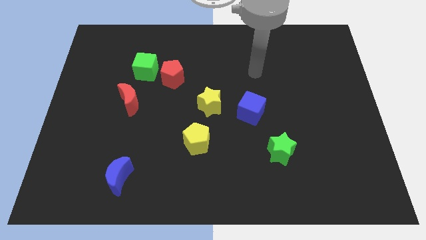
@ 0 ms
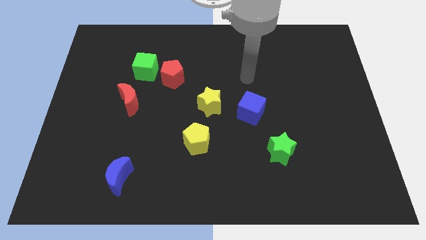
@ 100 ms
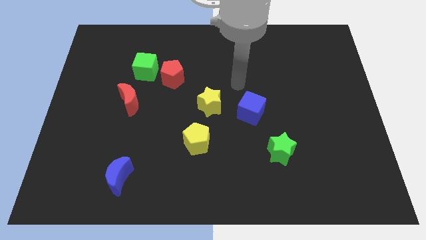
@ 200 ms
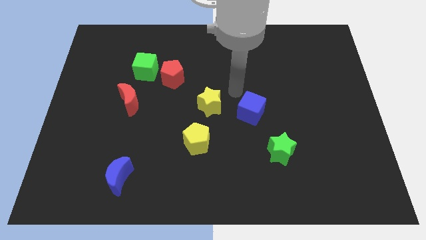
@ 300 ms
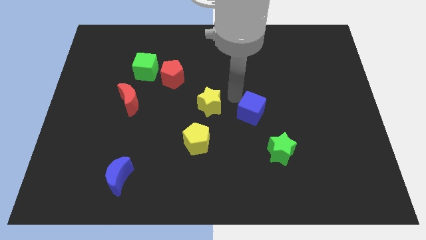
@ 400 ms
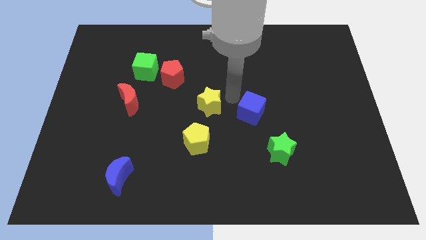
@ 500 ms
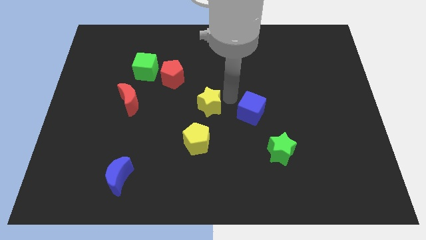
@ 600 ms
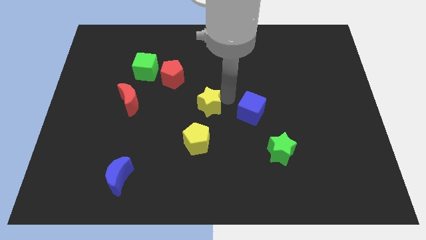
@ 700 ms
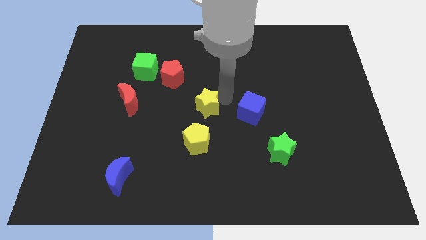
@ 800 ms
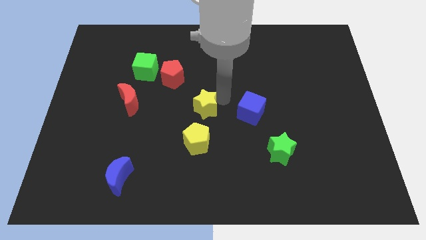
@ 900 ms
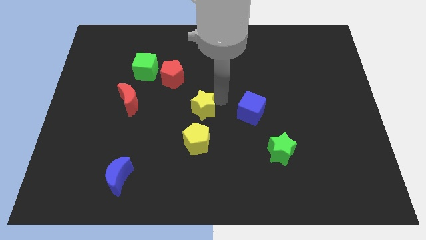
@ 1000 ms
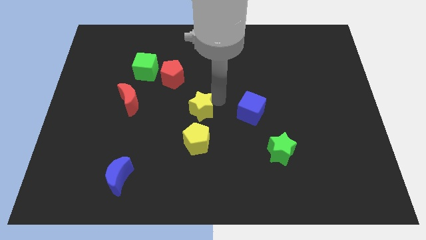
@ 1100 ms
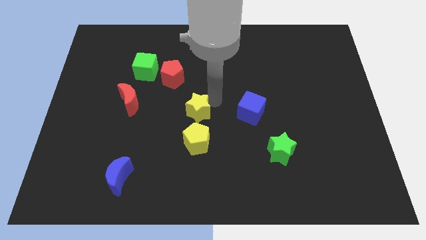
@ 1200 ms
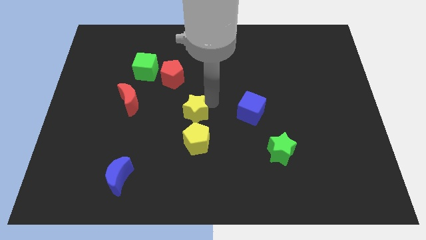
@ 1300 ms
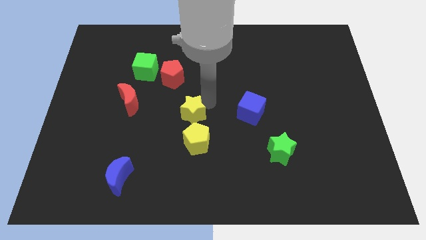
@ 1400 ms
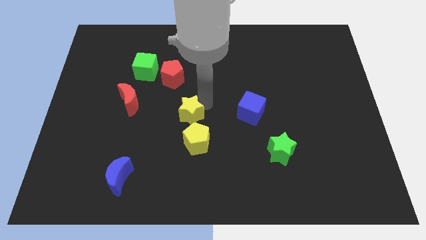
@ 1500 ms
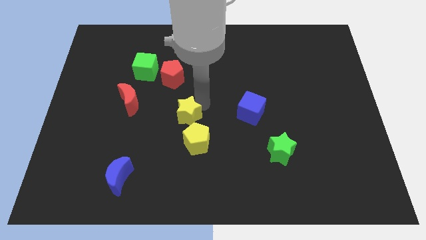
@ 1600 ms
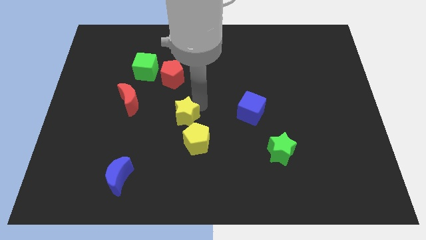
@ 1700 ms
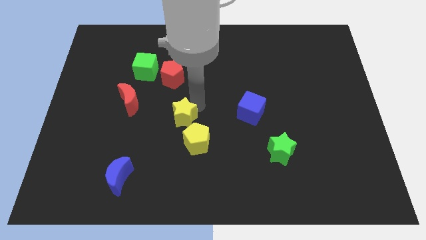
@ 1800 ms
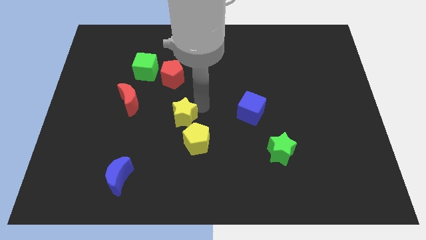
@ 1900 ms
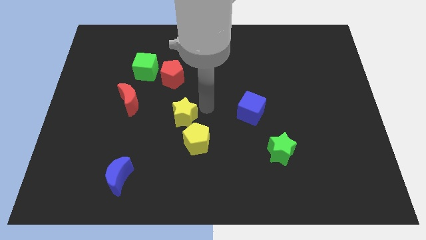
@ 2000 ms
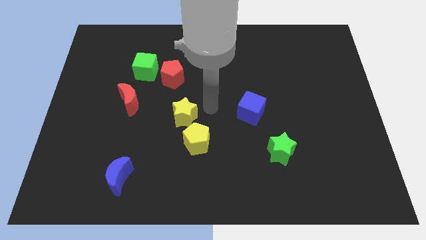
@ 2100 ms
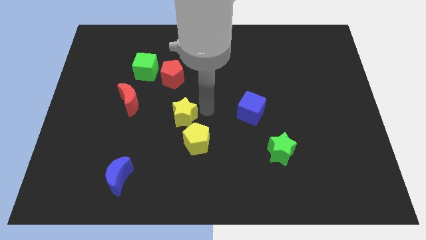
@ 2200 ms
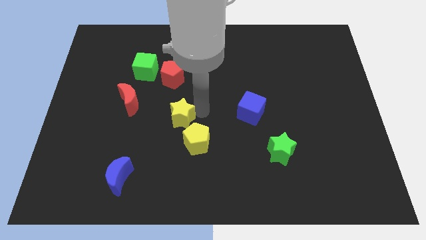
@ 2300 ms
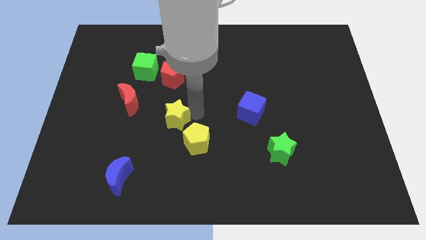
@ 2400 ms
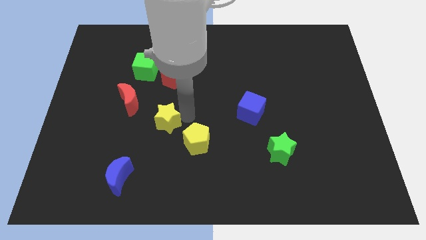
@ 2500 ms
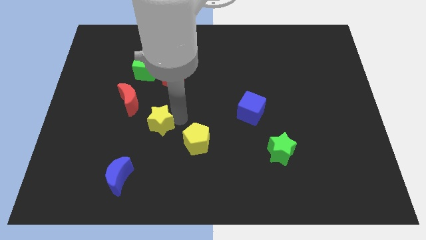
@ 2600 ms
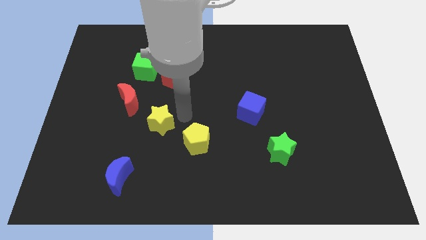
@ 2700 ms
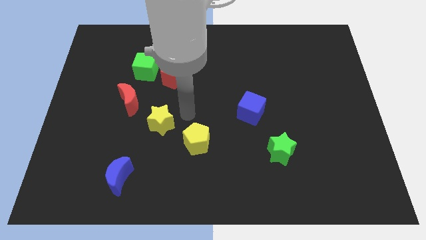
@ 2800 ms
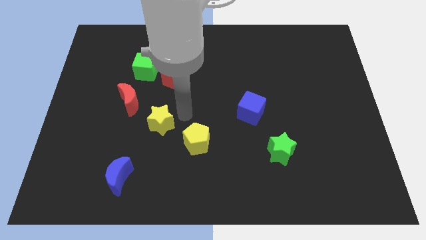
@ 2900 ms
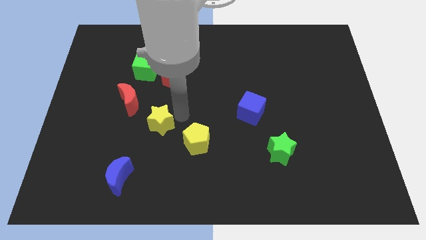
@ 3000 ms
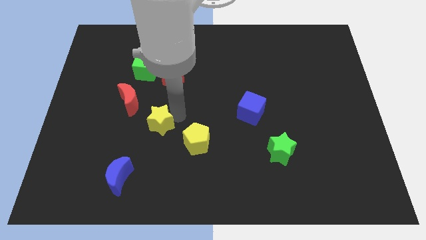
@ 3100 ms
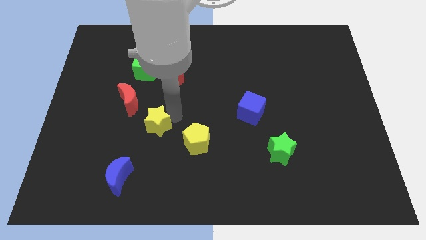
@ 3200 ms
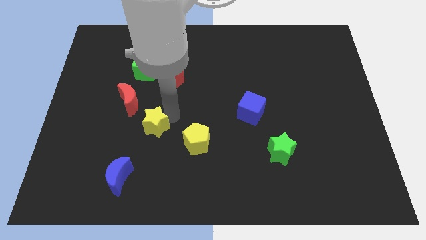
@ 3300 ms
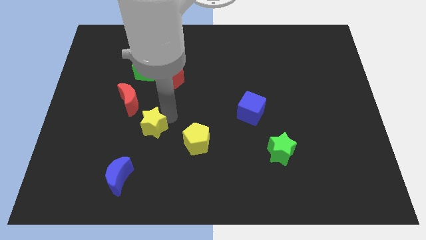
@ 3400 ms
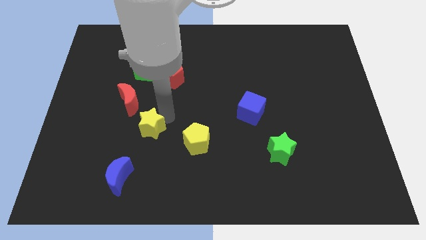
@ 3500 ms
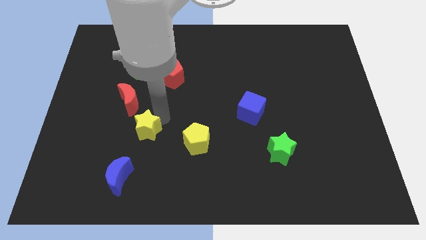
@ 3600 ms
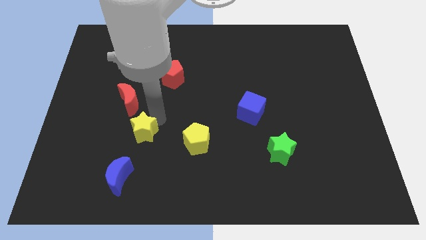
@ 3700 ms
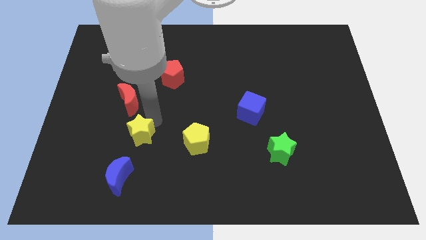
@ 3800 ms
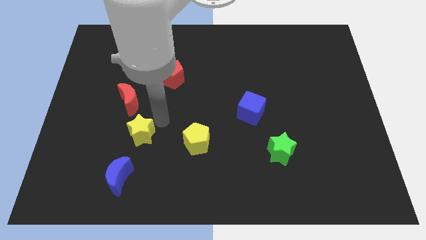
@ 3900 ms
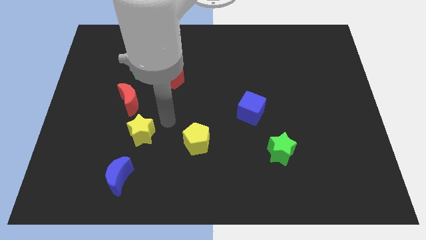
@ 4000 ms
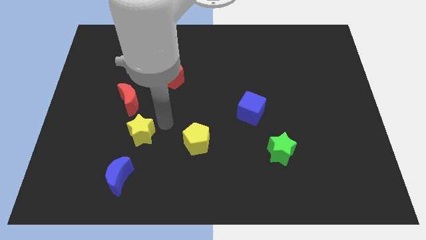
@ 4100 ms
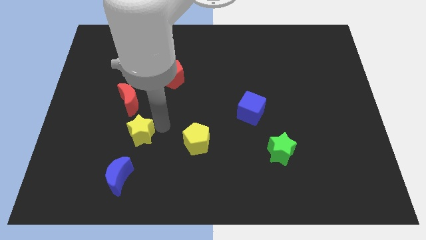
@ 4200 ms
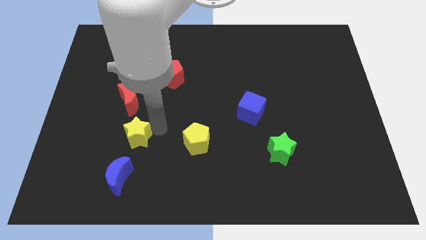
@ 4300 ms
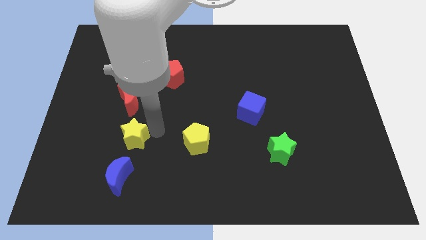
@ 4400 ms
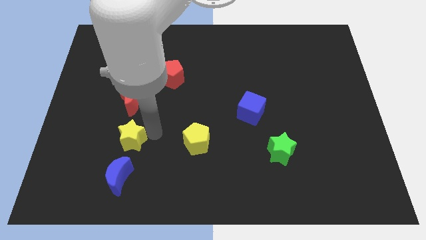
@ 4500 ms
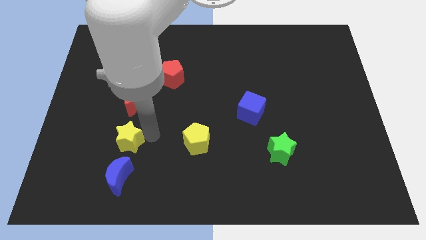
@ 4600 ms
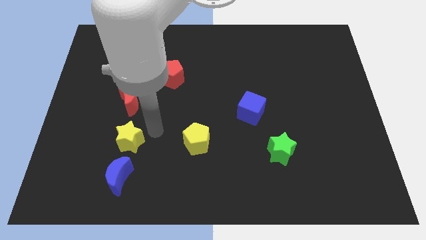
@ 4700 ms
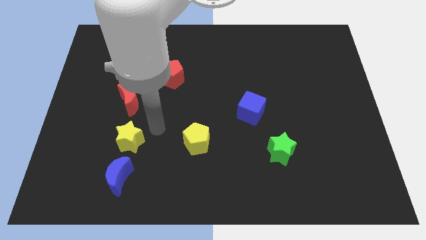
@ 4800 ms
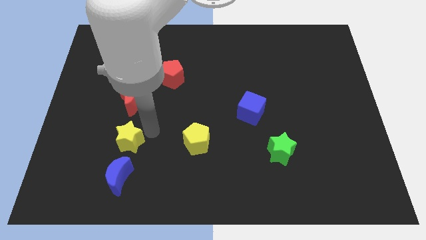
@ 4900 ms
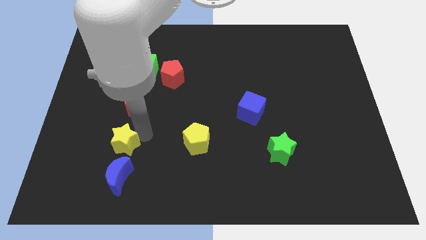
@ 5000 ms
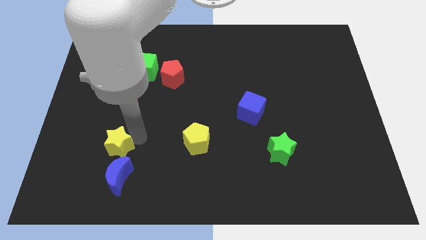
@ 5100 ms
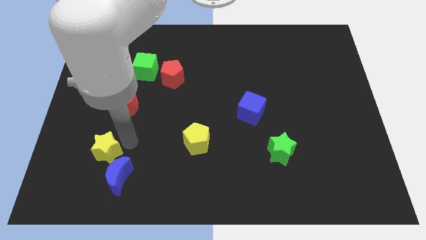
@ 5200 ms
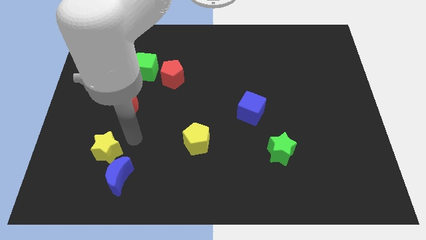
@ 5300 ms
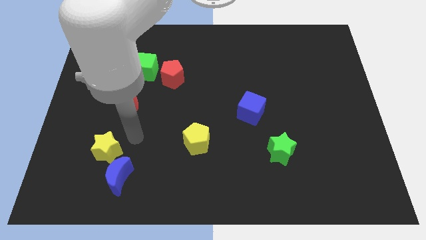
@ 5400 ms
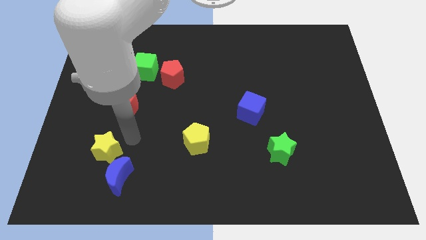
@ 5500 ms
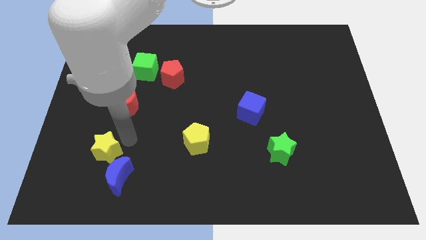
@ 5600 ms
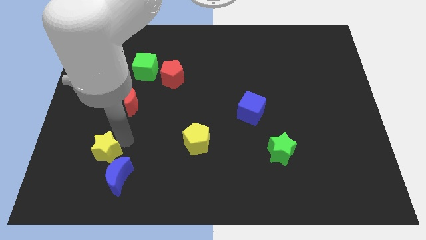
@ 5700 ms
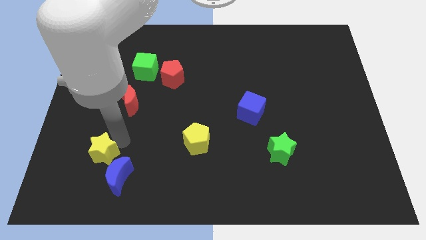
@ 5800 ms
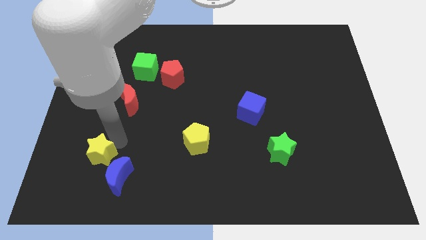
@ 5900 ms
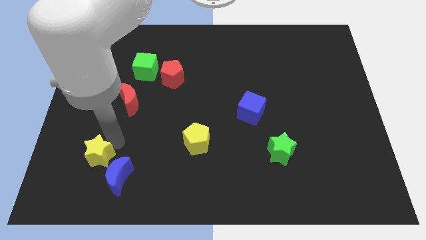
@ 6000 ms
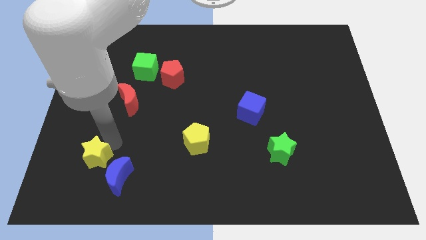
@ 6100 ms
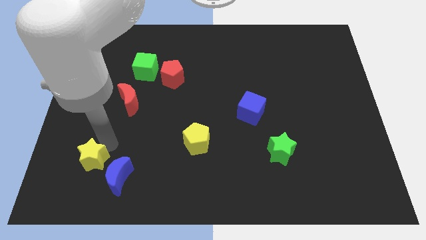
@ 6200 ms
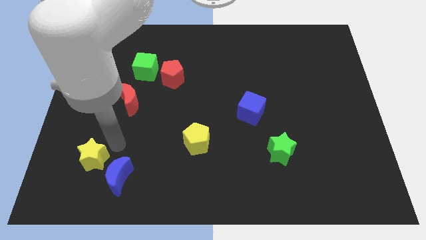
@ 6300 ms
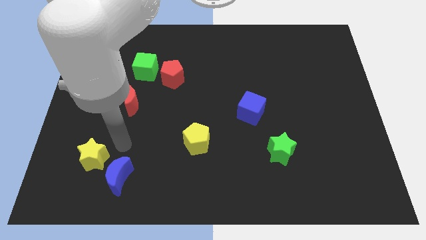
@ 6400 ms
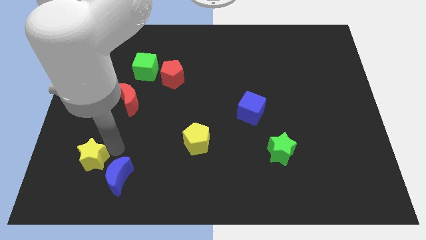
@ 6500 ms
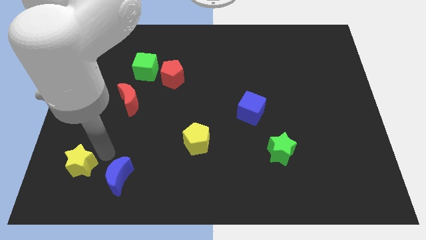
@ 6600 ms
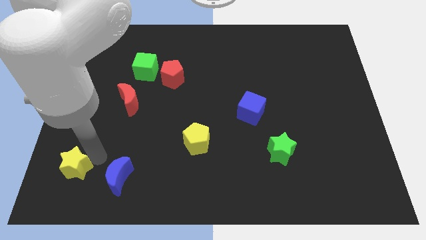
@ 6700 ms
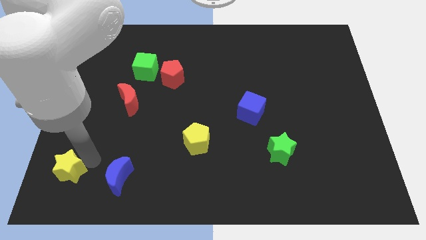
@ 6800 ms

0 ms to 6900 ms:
move the yellow star to the bottom left of the board
